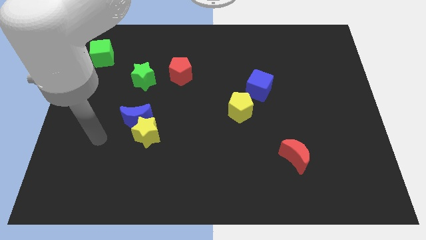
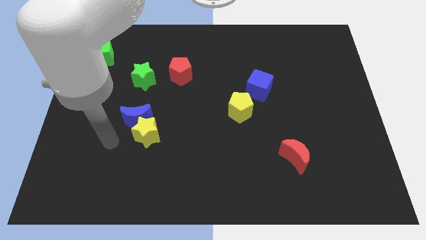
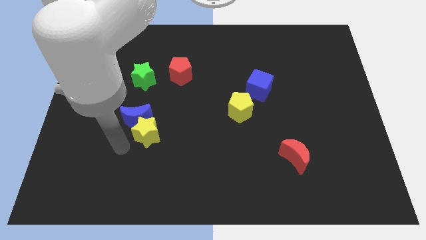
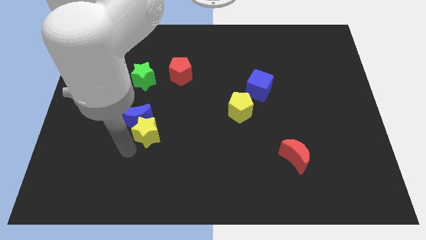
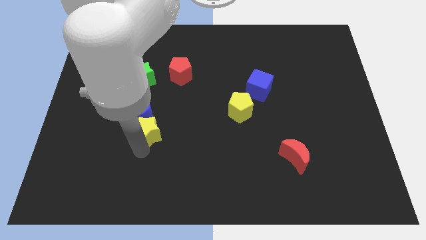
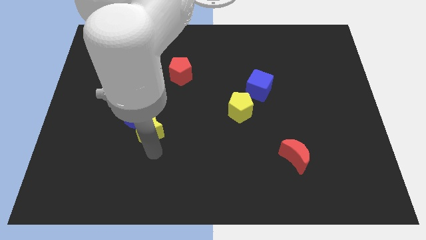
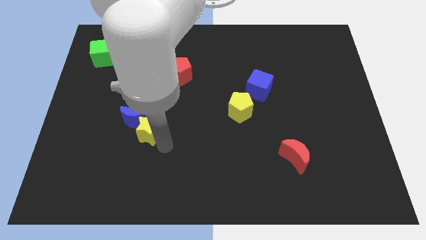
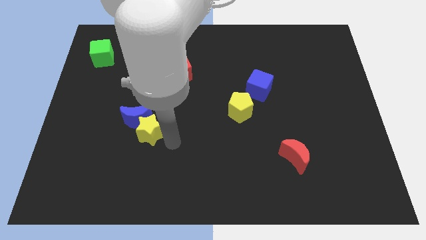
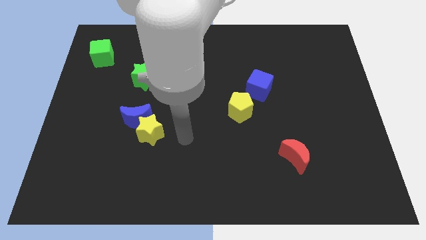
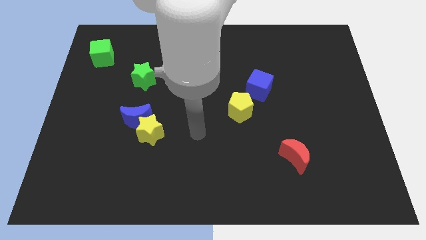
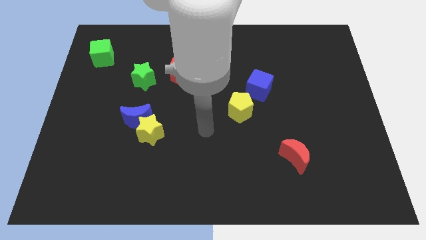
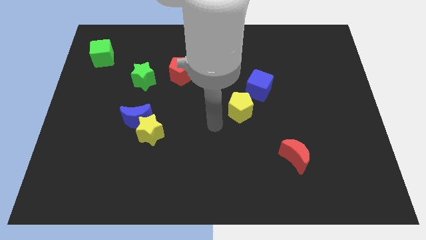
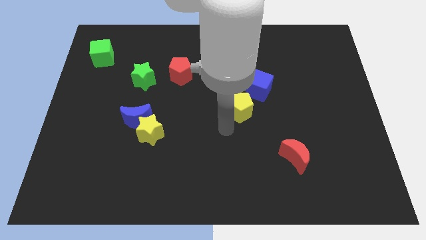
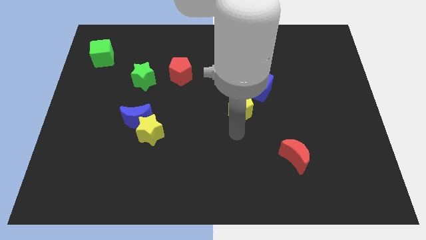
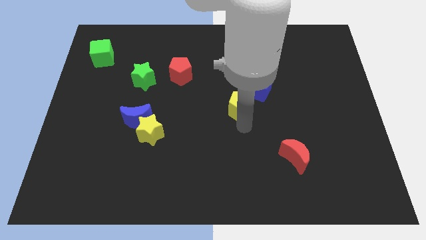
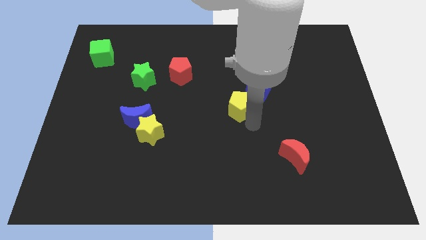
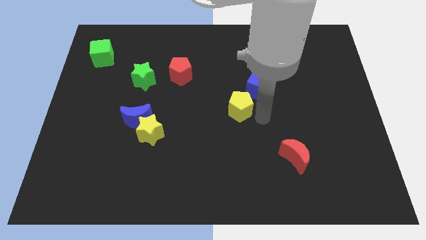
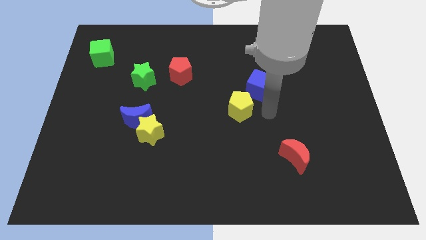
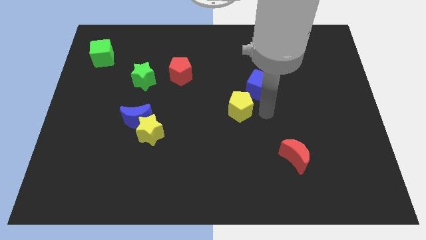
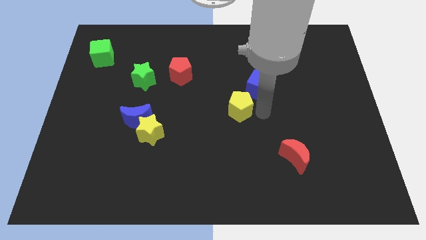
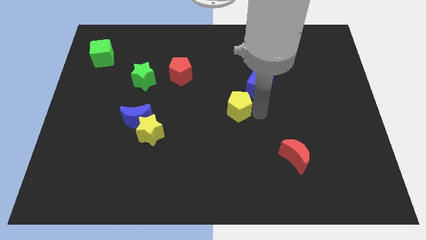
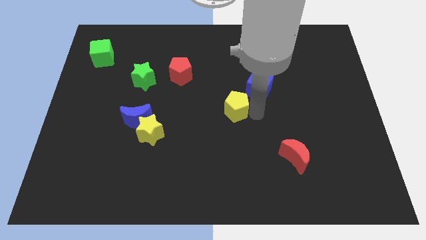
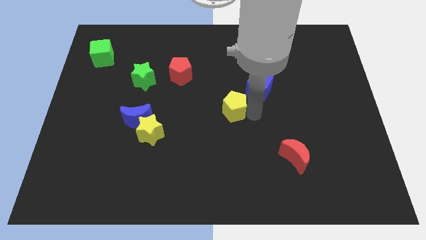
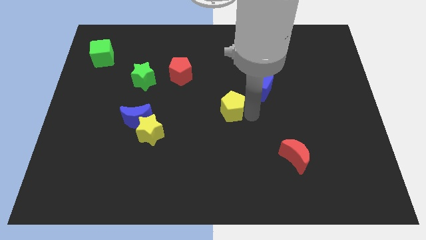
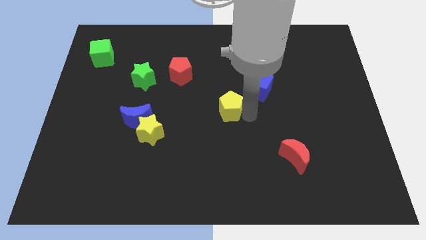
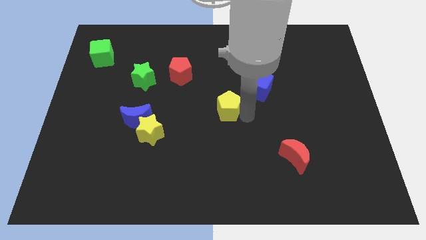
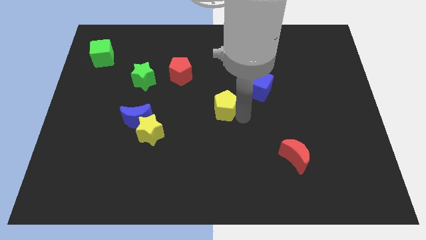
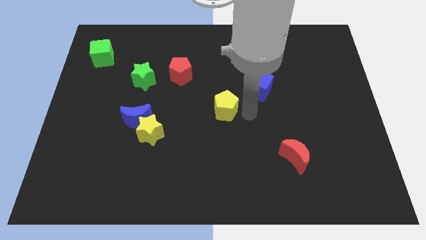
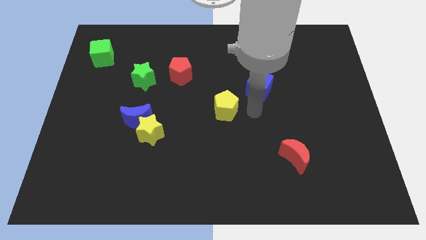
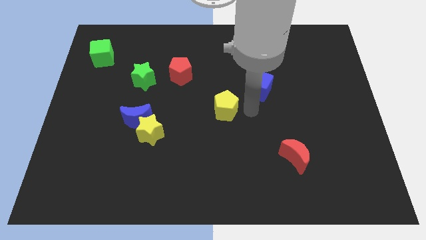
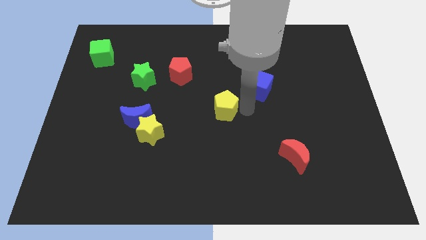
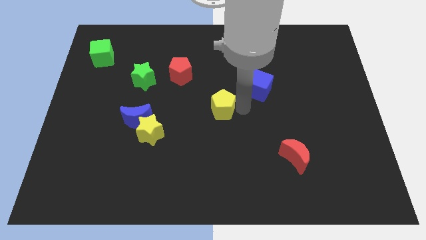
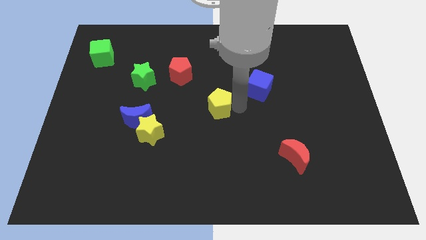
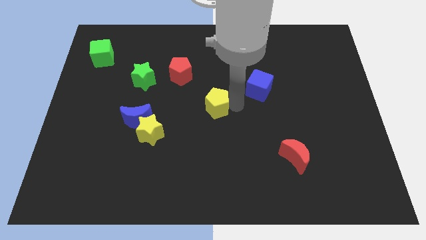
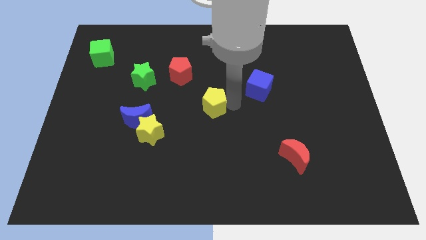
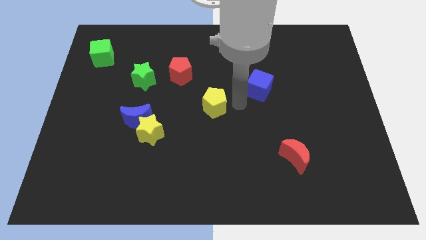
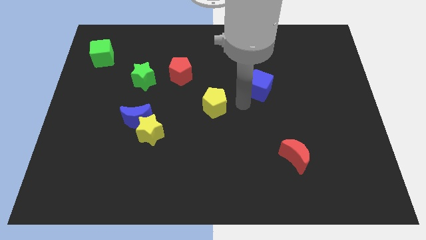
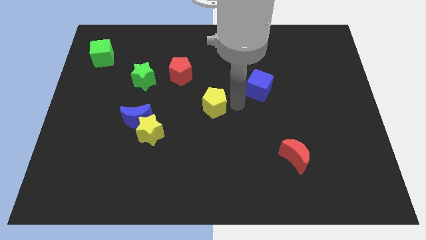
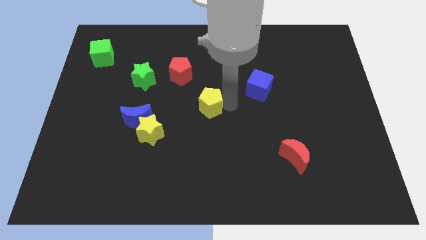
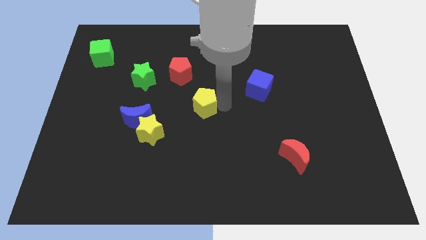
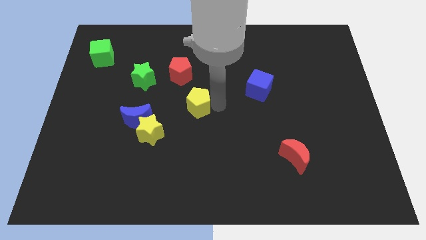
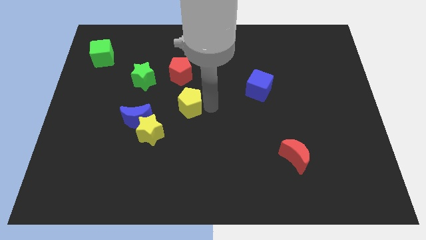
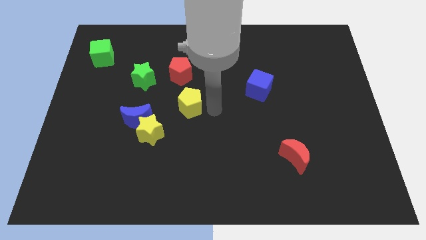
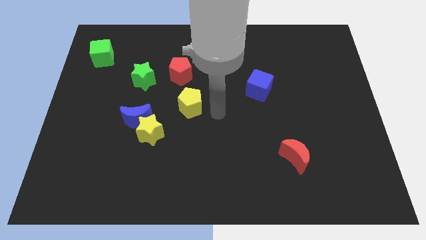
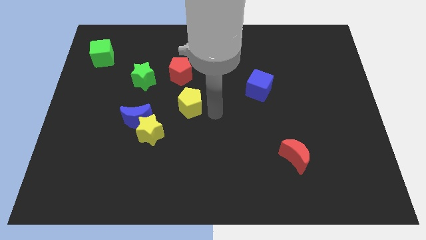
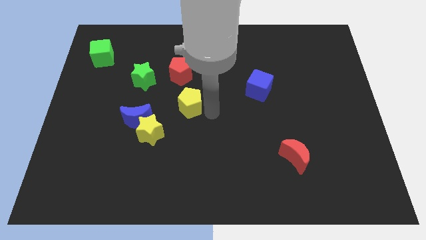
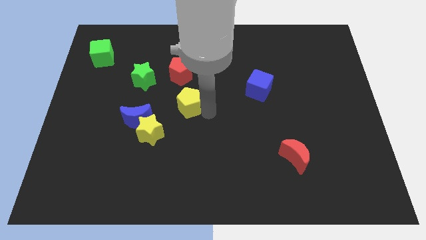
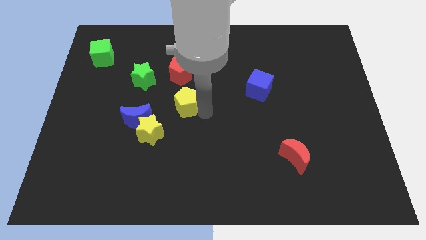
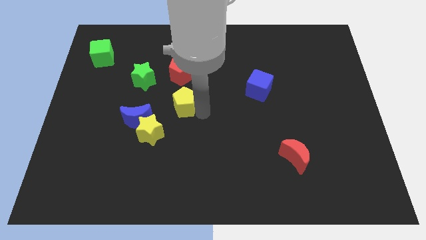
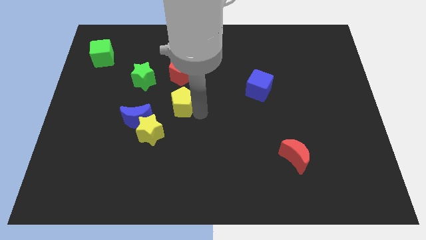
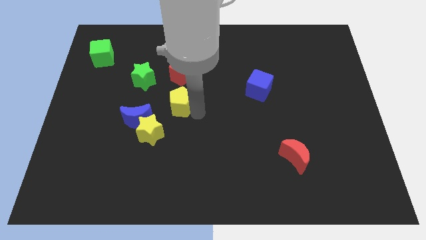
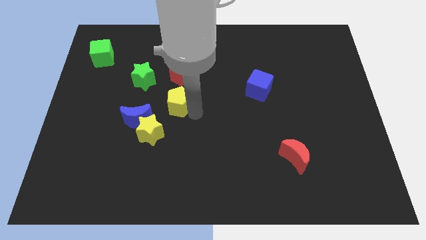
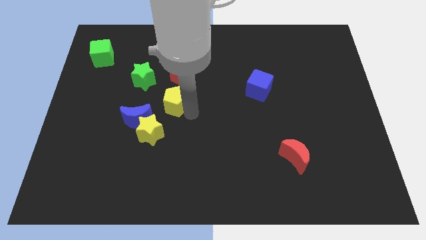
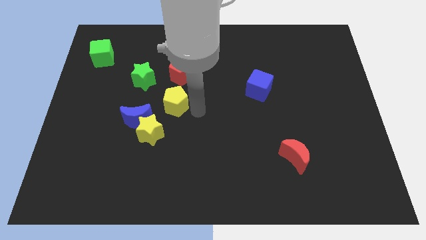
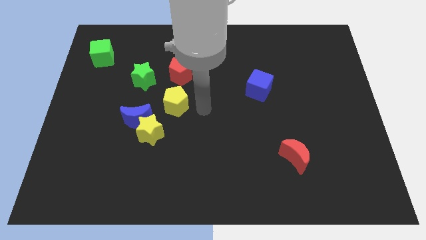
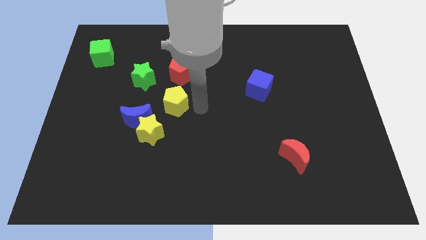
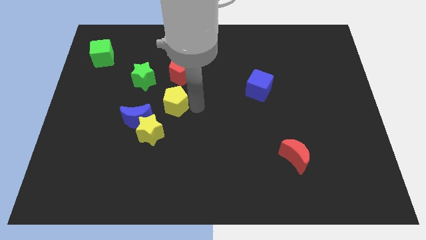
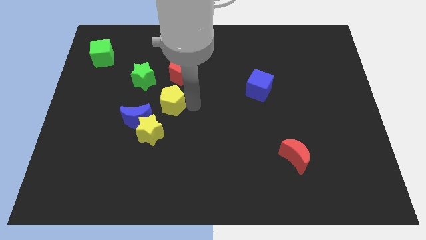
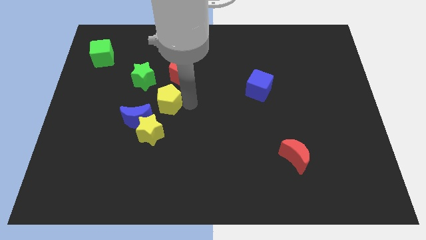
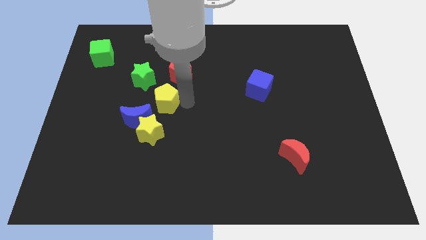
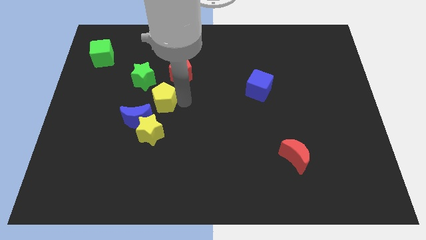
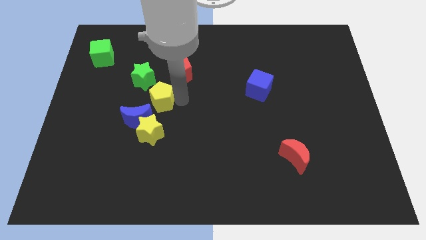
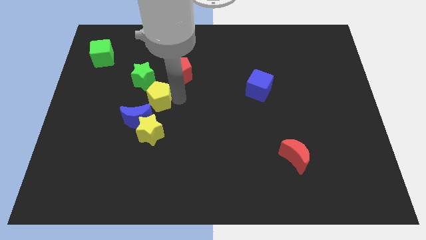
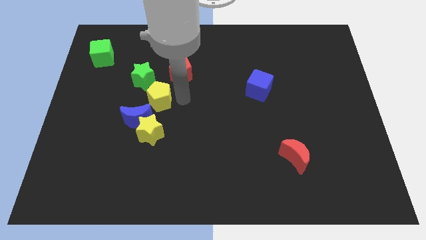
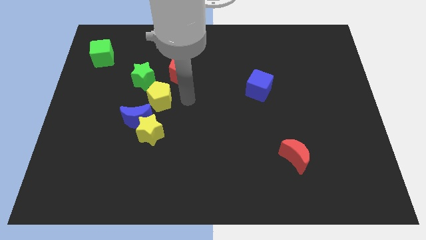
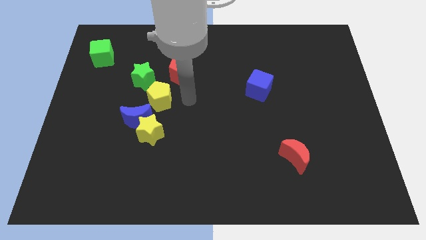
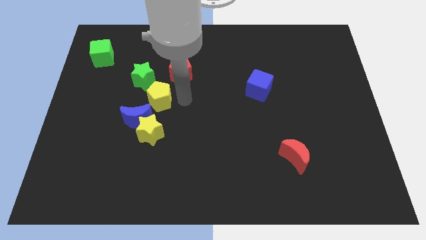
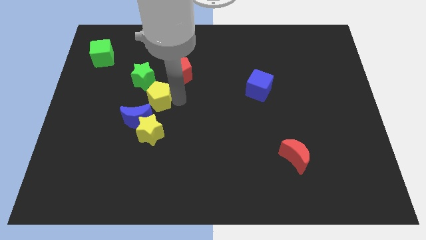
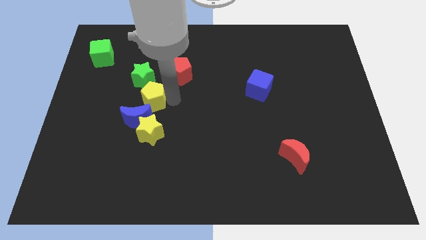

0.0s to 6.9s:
slide the yellow pentagon left

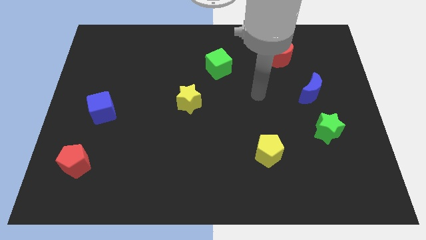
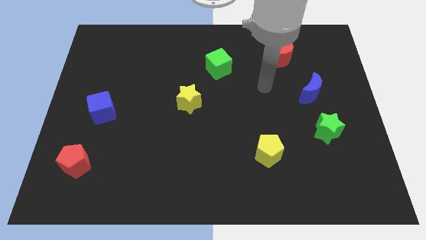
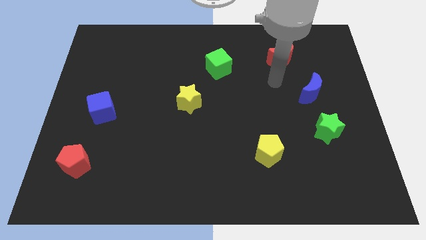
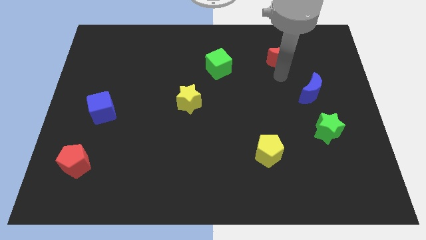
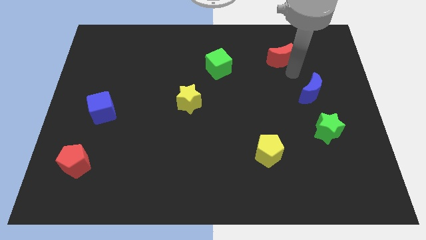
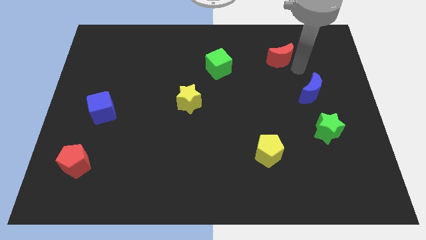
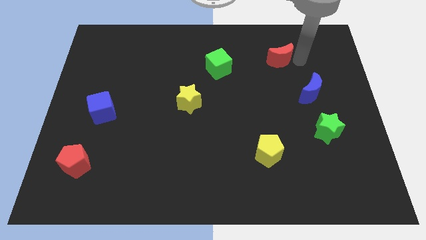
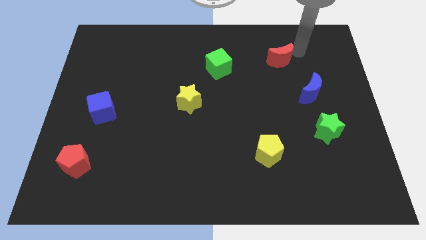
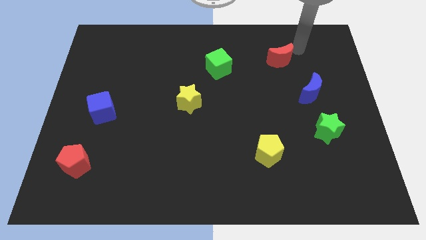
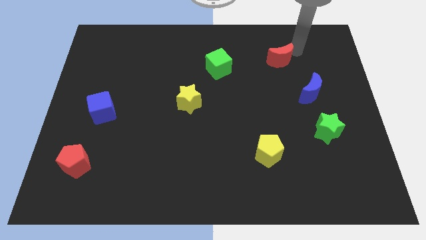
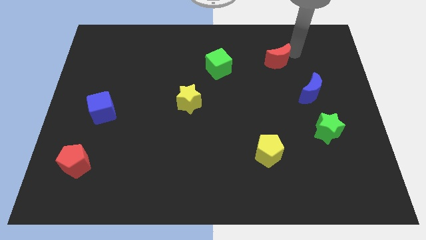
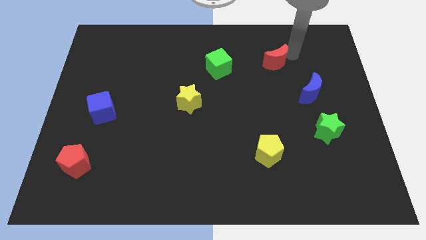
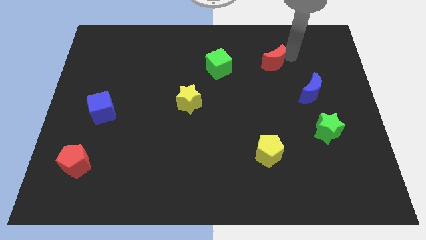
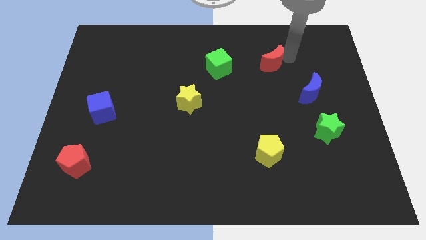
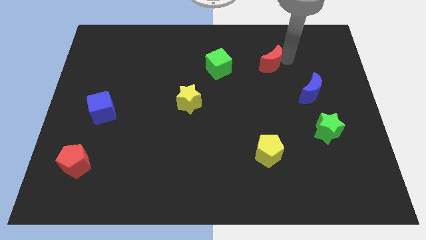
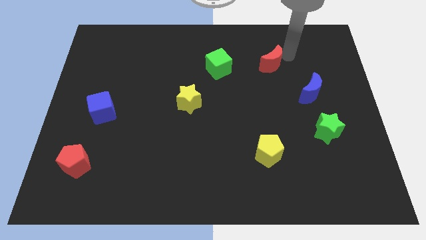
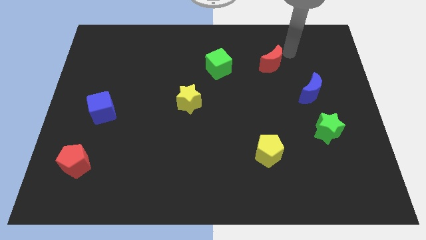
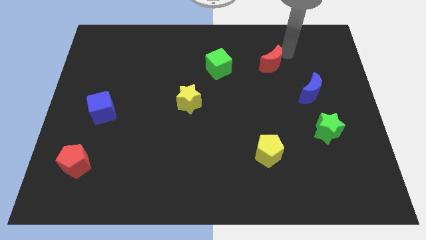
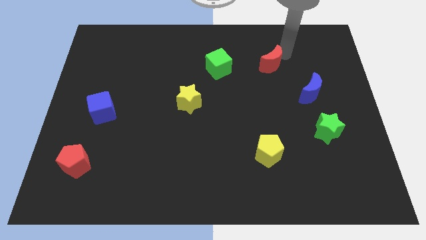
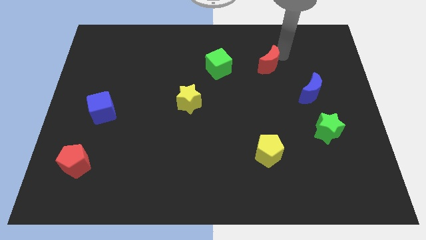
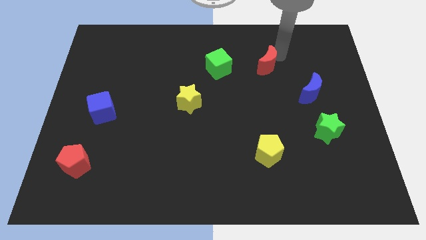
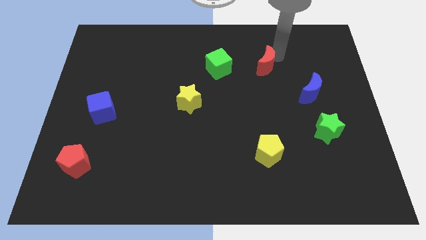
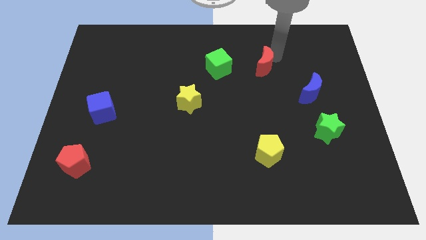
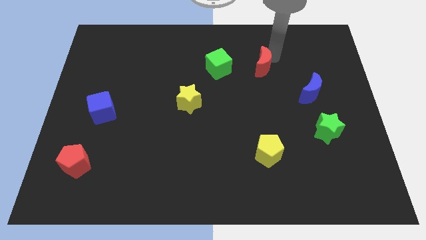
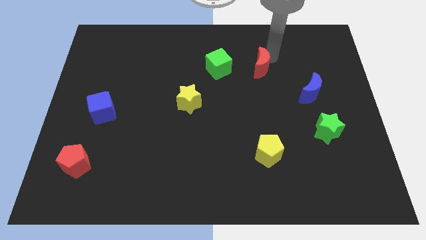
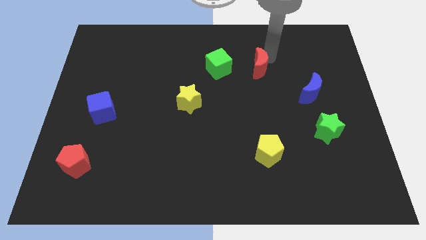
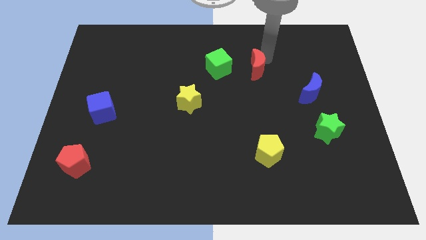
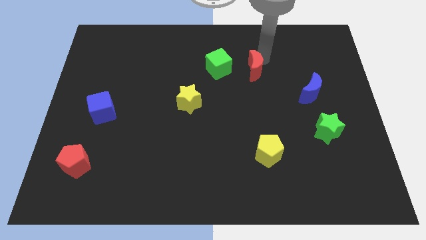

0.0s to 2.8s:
slightly slide the red moon downwards and then left
